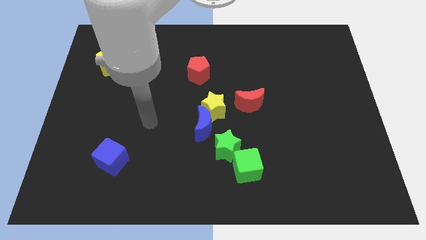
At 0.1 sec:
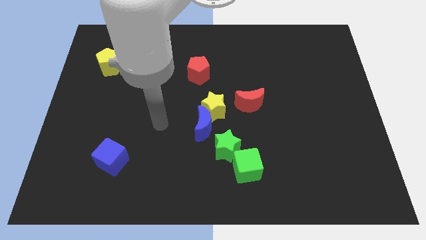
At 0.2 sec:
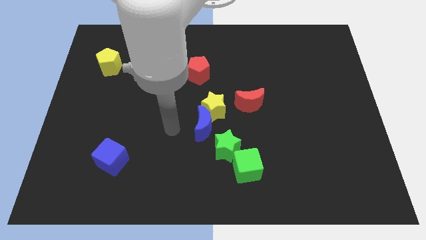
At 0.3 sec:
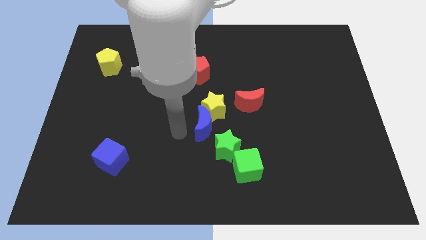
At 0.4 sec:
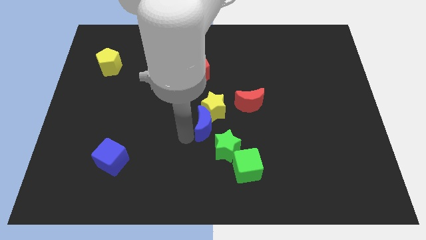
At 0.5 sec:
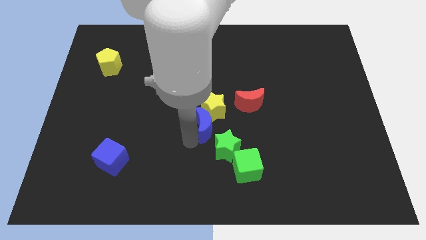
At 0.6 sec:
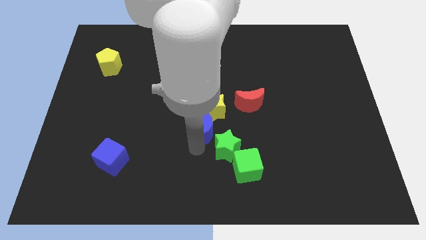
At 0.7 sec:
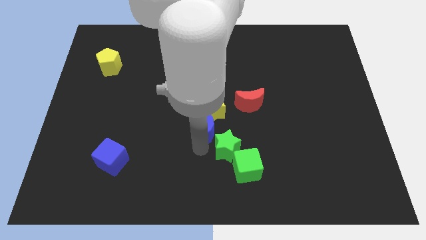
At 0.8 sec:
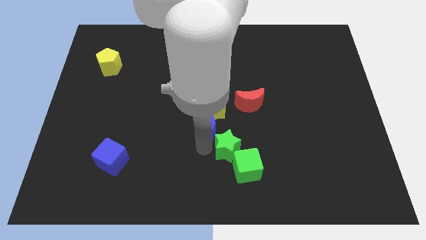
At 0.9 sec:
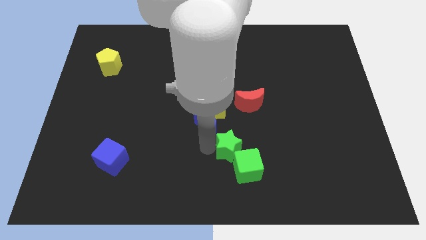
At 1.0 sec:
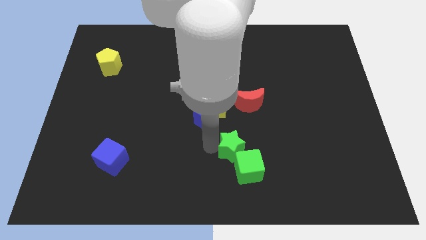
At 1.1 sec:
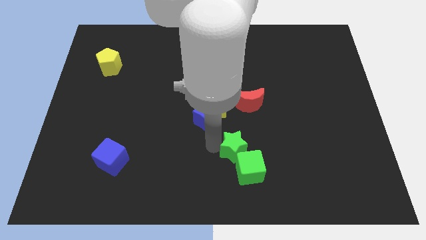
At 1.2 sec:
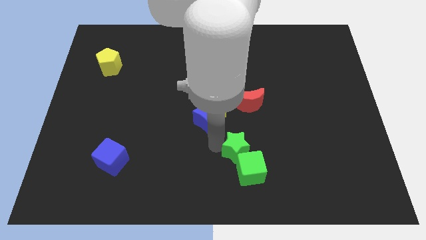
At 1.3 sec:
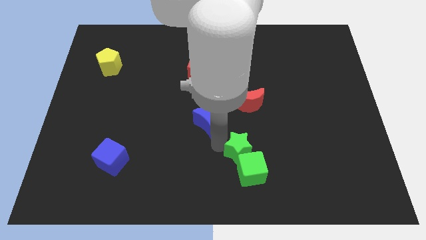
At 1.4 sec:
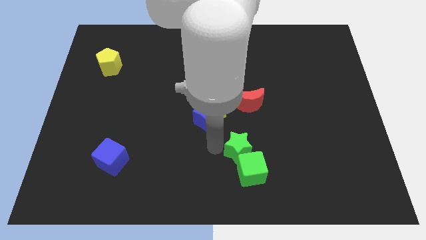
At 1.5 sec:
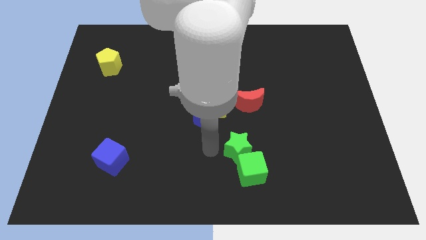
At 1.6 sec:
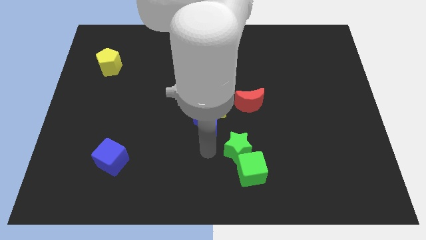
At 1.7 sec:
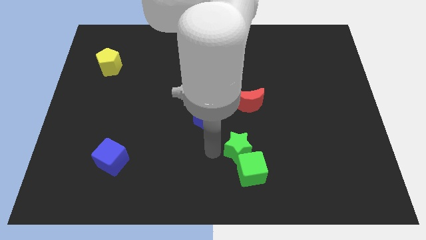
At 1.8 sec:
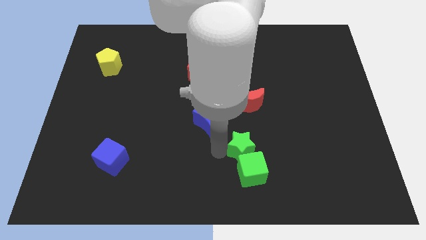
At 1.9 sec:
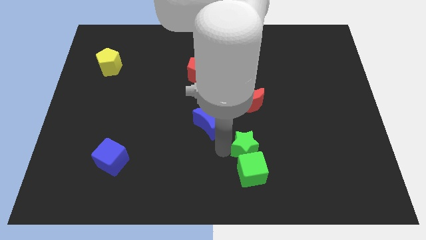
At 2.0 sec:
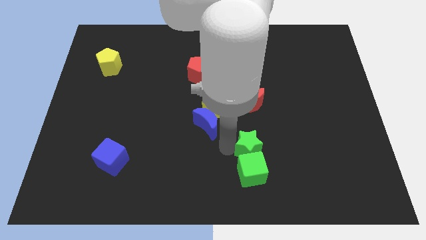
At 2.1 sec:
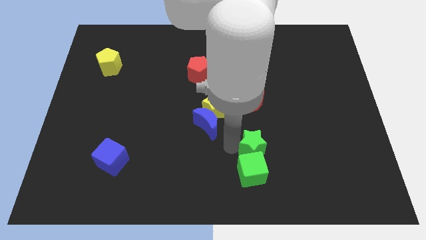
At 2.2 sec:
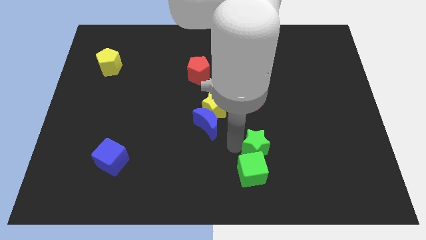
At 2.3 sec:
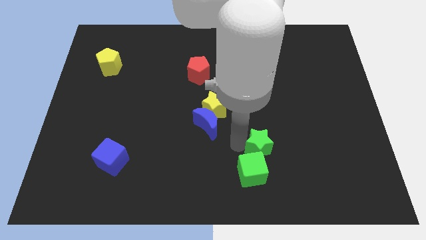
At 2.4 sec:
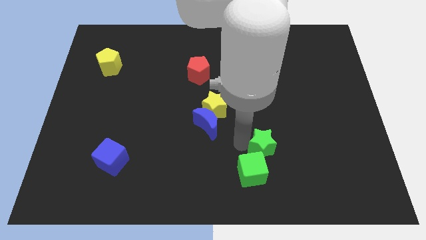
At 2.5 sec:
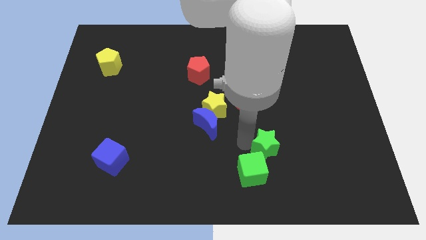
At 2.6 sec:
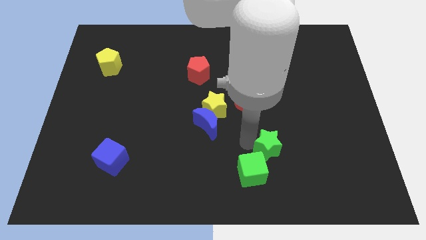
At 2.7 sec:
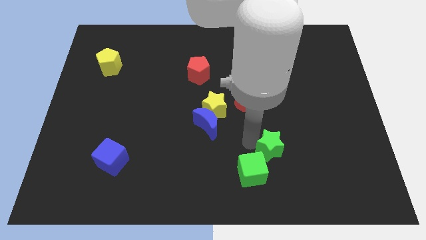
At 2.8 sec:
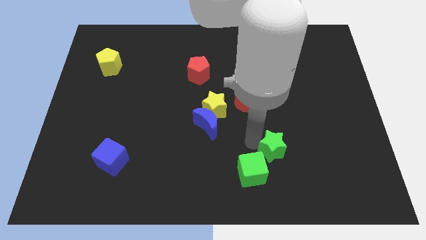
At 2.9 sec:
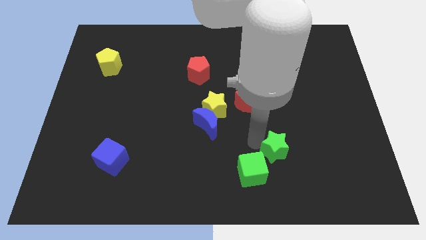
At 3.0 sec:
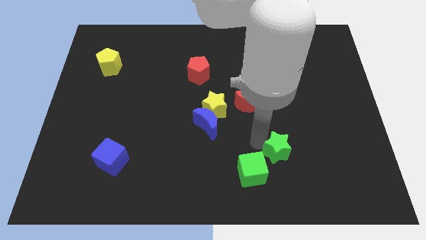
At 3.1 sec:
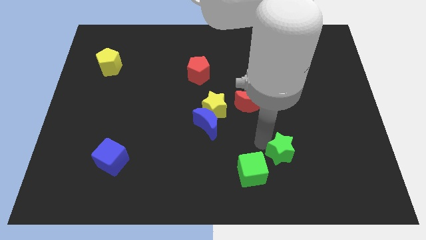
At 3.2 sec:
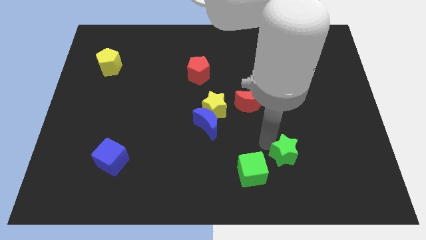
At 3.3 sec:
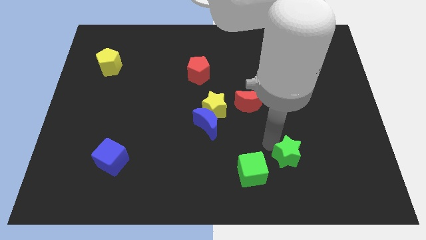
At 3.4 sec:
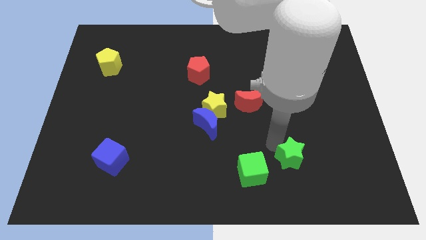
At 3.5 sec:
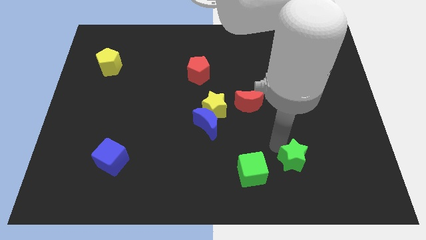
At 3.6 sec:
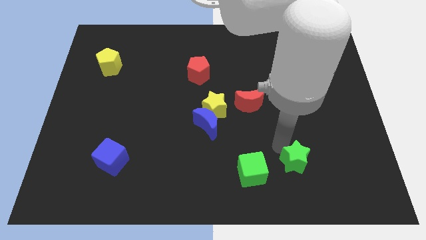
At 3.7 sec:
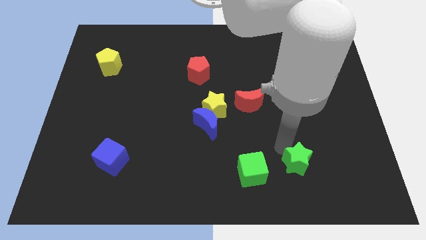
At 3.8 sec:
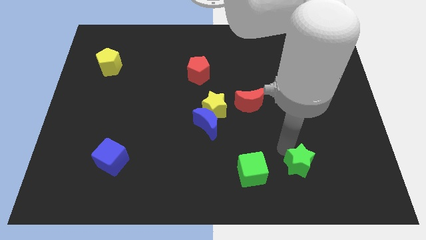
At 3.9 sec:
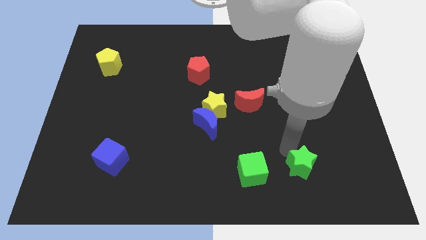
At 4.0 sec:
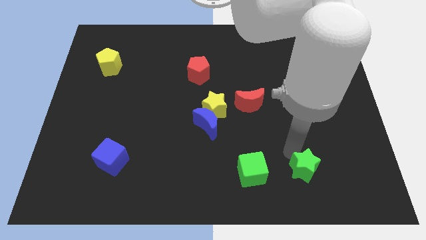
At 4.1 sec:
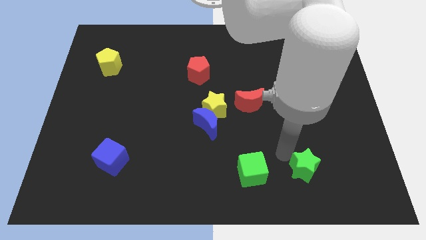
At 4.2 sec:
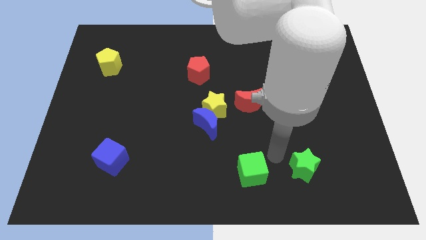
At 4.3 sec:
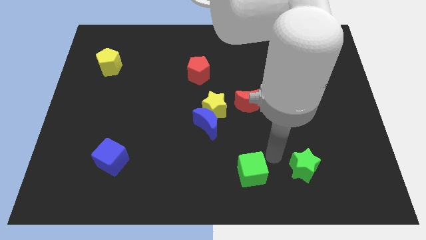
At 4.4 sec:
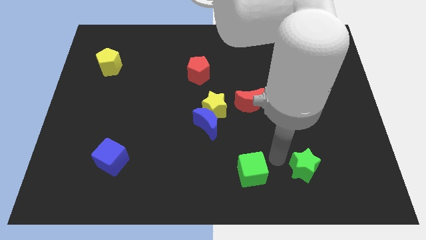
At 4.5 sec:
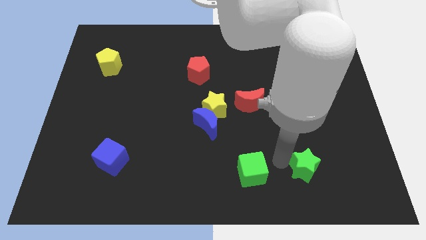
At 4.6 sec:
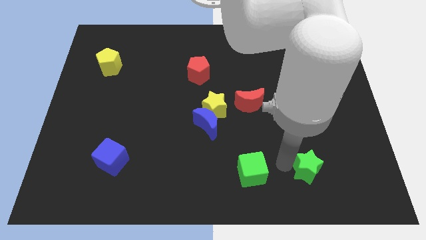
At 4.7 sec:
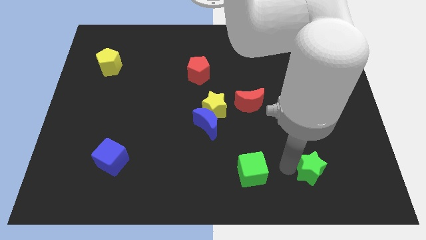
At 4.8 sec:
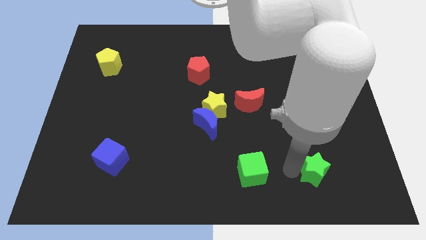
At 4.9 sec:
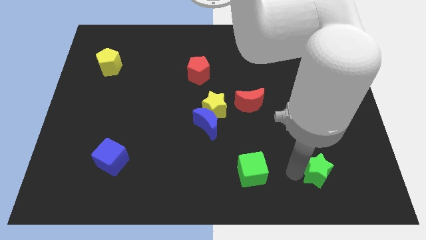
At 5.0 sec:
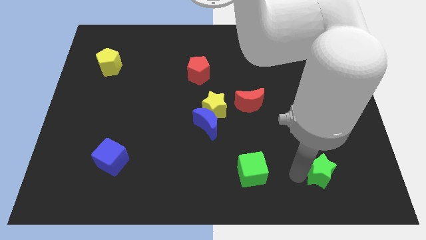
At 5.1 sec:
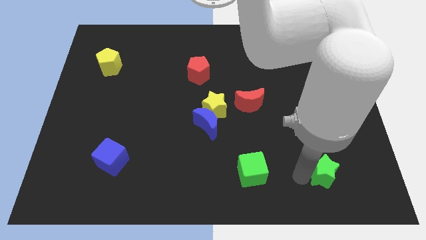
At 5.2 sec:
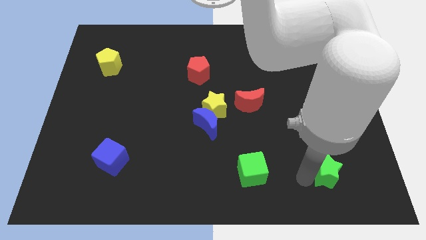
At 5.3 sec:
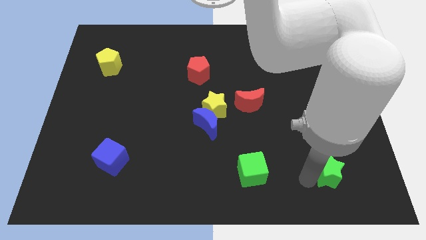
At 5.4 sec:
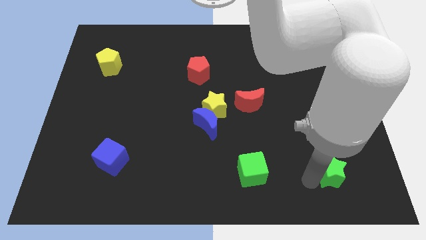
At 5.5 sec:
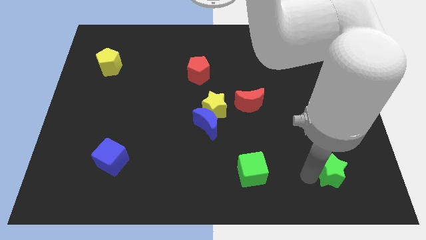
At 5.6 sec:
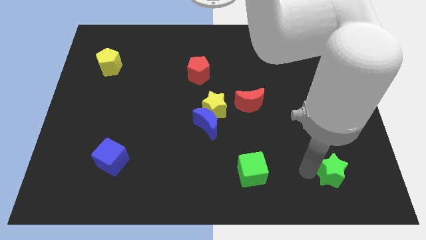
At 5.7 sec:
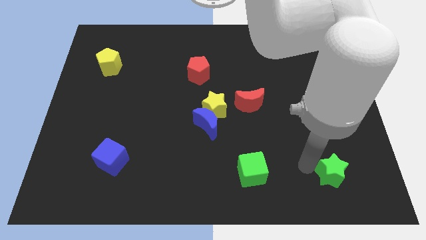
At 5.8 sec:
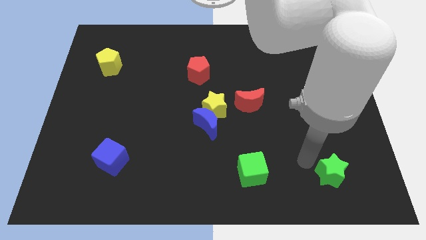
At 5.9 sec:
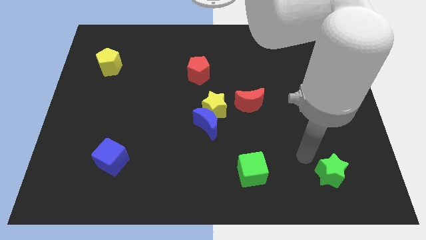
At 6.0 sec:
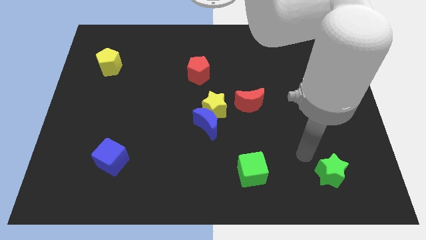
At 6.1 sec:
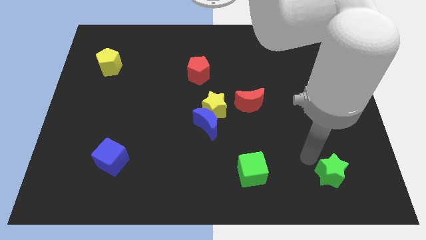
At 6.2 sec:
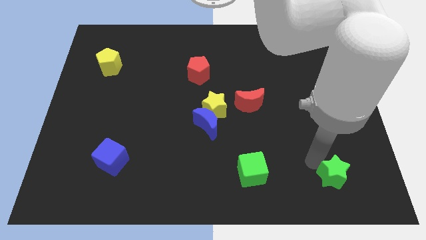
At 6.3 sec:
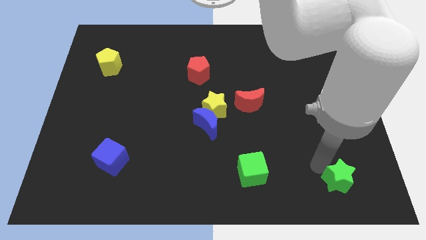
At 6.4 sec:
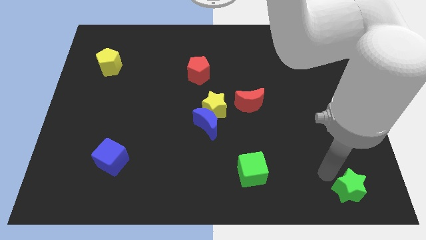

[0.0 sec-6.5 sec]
put the green star to the bottom right
